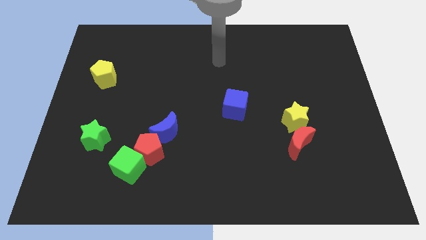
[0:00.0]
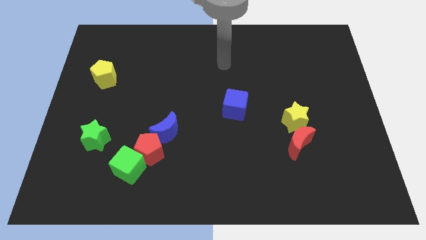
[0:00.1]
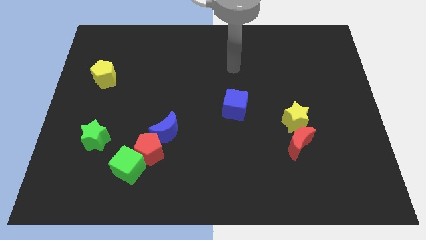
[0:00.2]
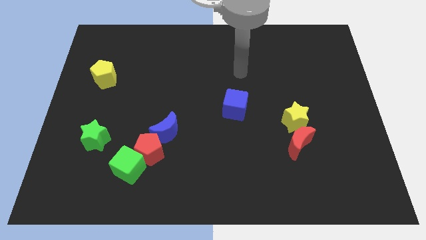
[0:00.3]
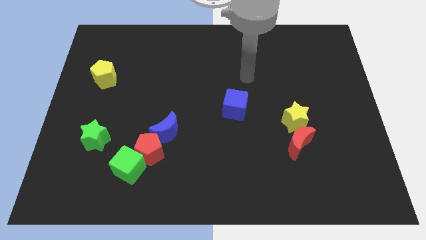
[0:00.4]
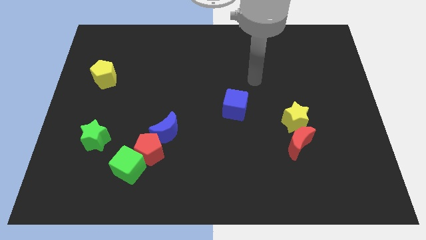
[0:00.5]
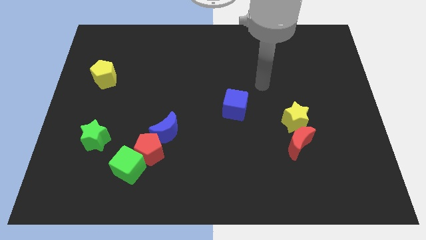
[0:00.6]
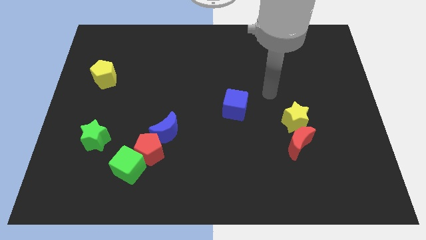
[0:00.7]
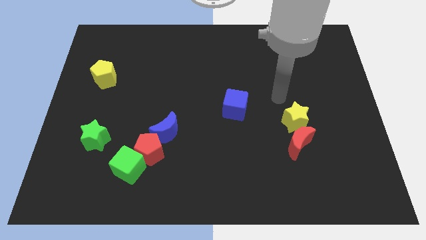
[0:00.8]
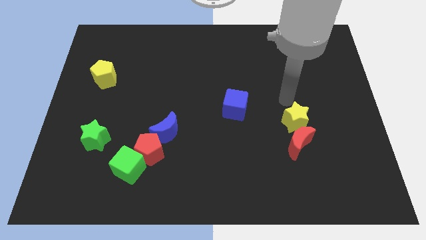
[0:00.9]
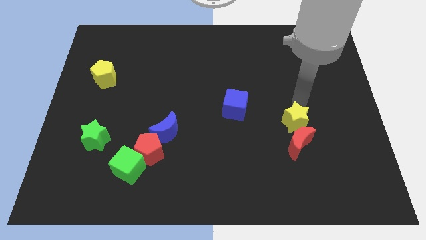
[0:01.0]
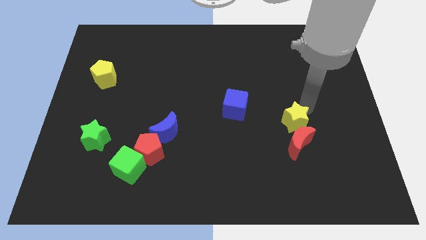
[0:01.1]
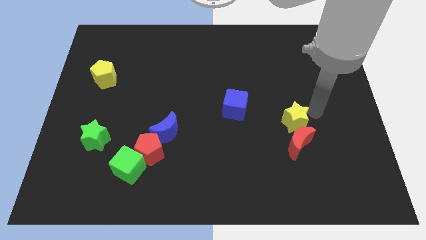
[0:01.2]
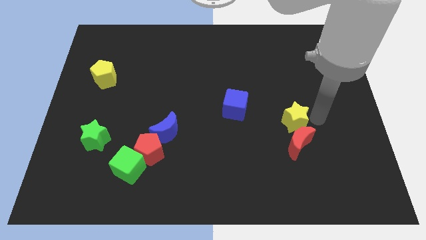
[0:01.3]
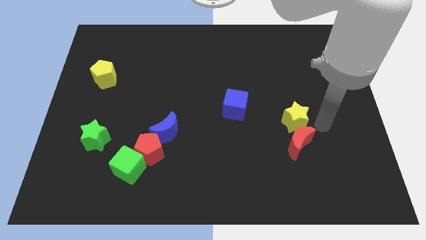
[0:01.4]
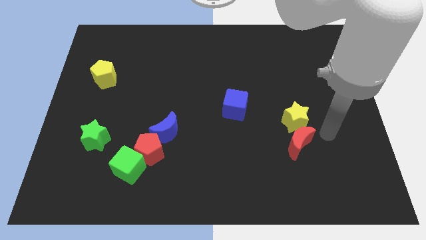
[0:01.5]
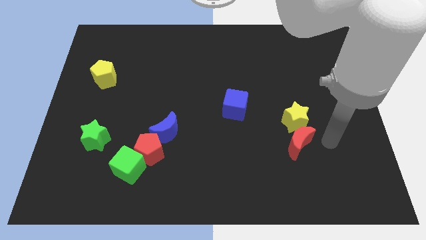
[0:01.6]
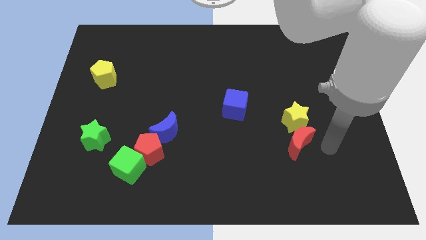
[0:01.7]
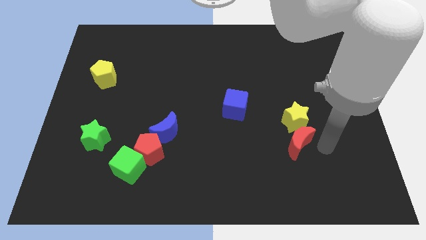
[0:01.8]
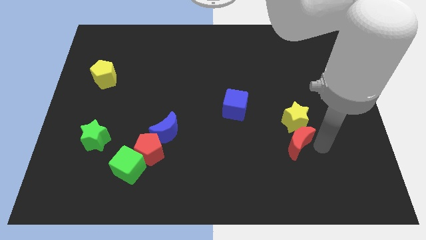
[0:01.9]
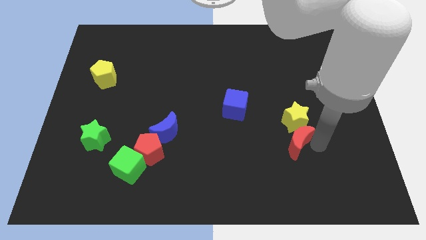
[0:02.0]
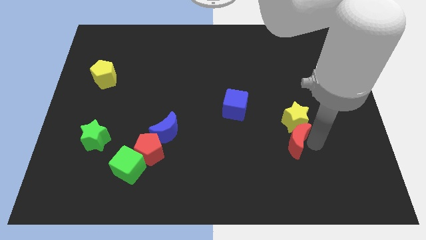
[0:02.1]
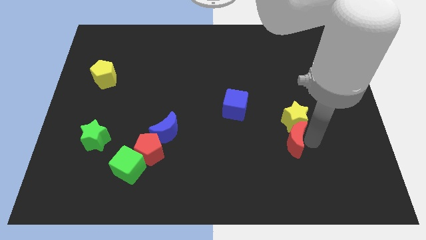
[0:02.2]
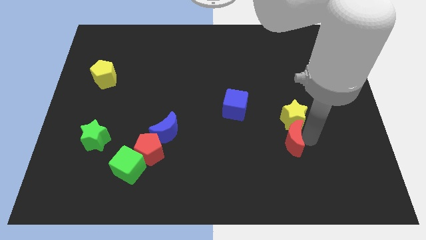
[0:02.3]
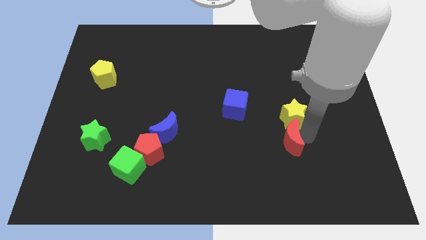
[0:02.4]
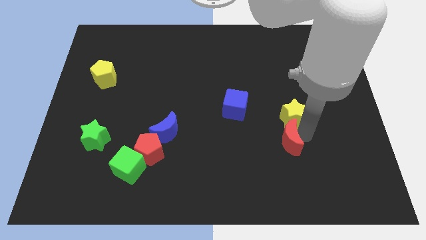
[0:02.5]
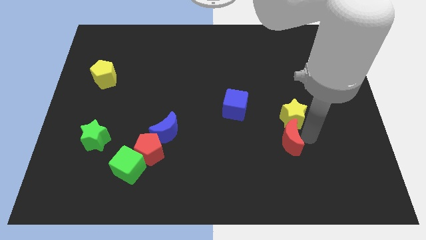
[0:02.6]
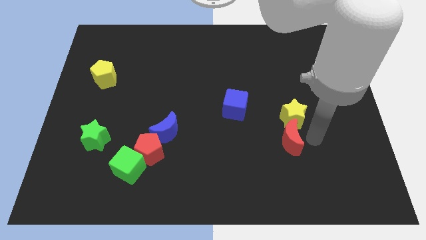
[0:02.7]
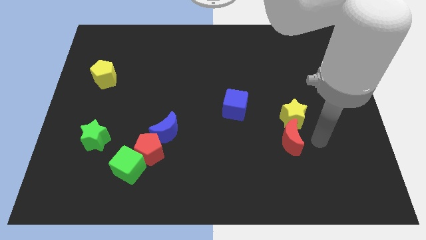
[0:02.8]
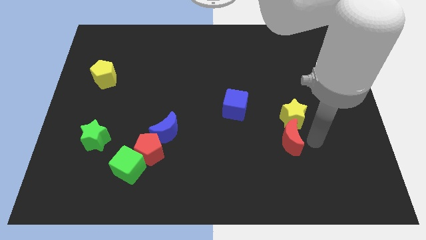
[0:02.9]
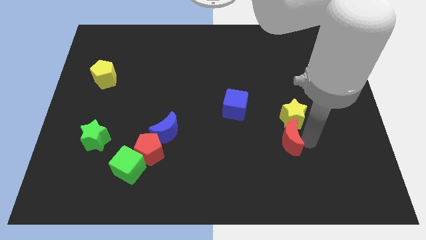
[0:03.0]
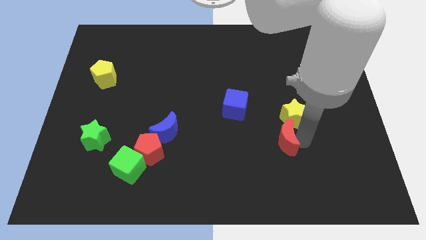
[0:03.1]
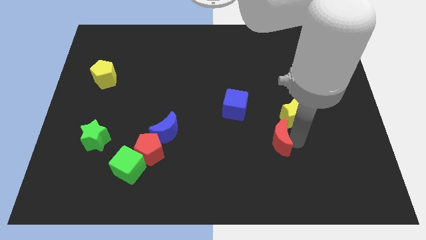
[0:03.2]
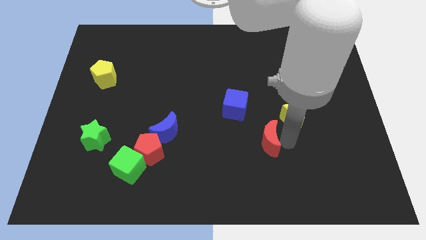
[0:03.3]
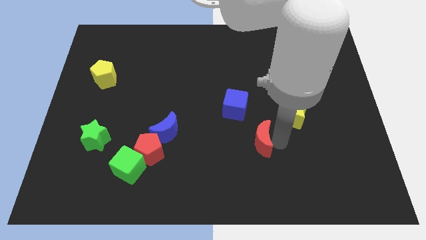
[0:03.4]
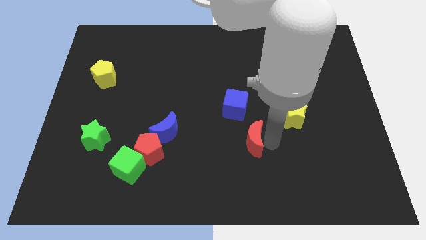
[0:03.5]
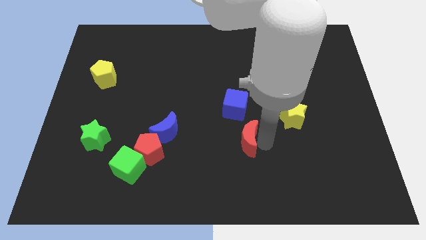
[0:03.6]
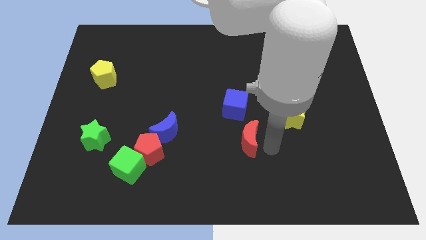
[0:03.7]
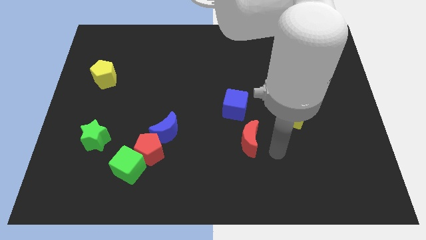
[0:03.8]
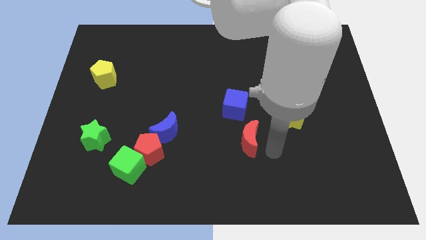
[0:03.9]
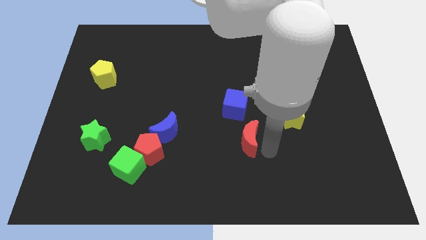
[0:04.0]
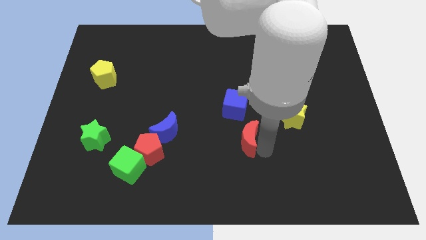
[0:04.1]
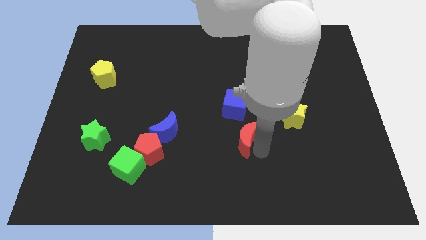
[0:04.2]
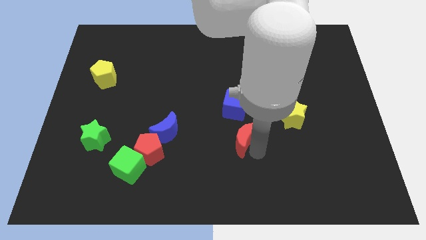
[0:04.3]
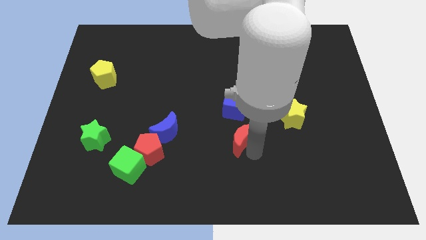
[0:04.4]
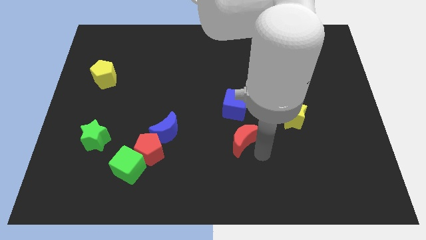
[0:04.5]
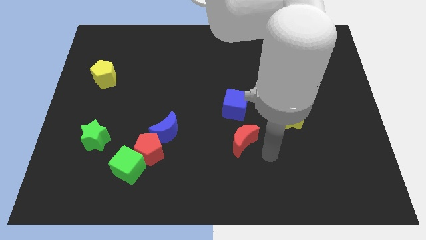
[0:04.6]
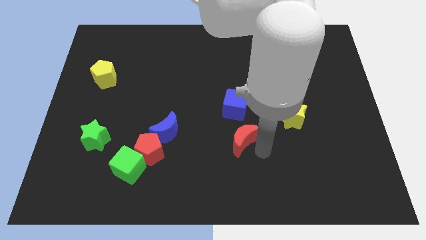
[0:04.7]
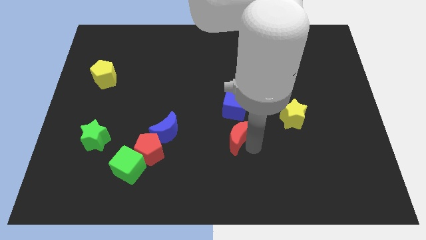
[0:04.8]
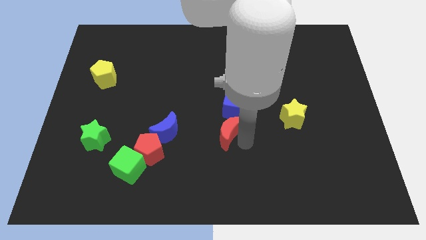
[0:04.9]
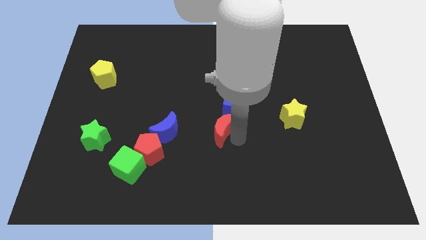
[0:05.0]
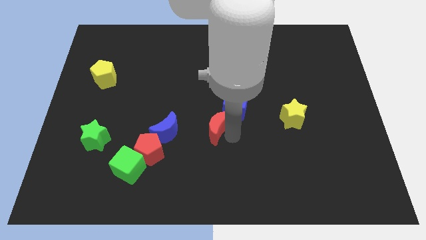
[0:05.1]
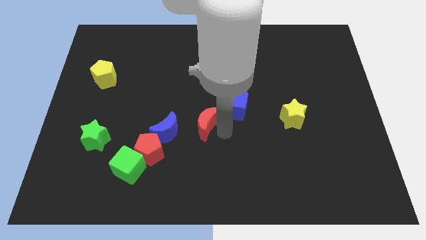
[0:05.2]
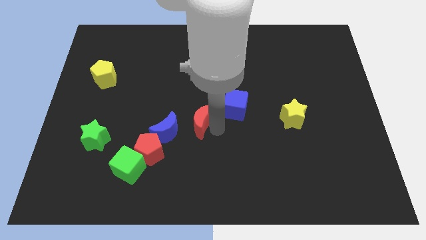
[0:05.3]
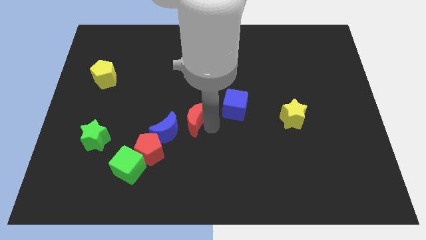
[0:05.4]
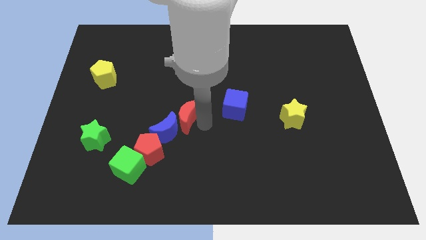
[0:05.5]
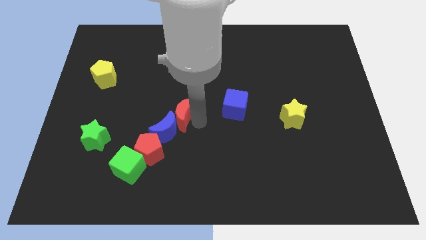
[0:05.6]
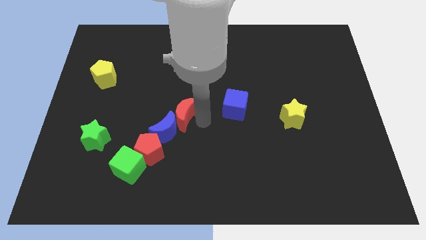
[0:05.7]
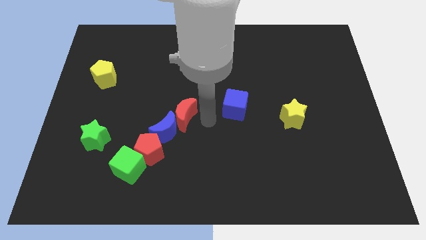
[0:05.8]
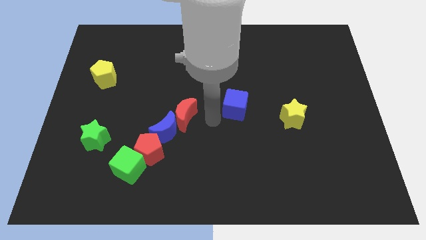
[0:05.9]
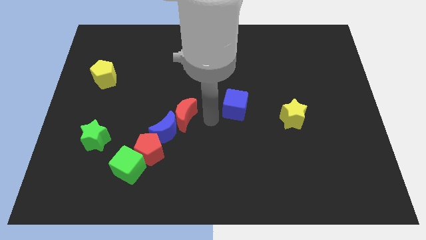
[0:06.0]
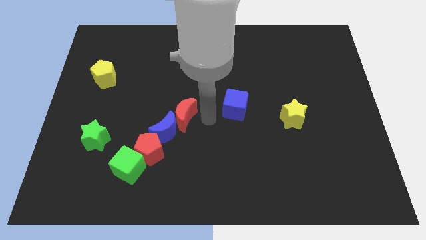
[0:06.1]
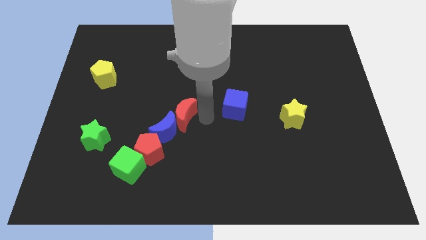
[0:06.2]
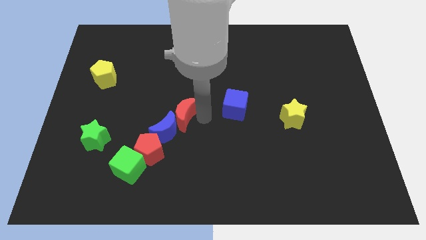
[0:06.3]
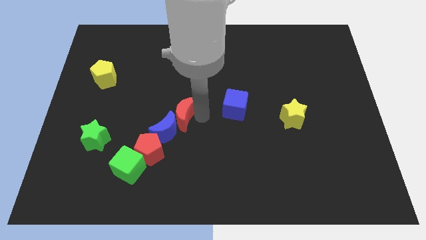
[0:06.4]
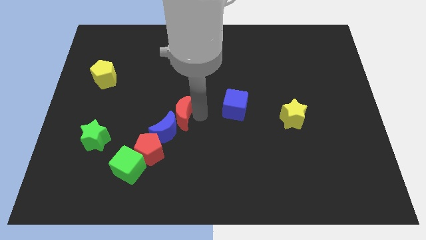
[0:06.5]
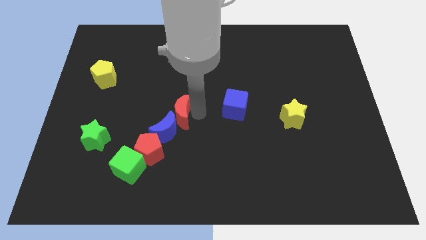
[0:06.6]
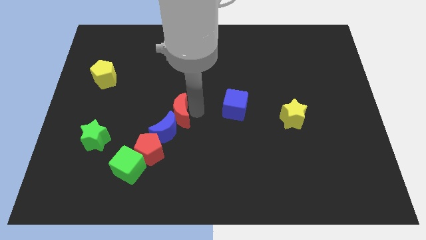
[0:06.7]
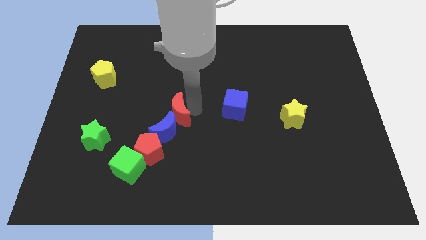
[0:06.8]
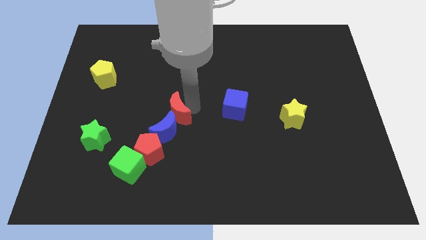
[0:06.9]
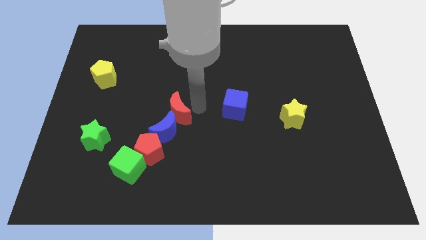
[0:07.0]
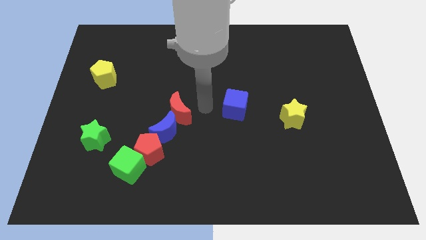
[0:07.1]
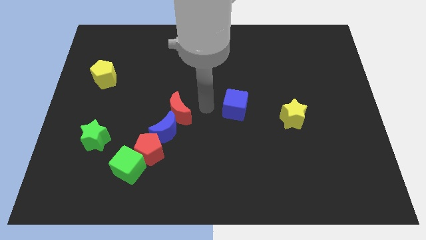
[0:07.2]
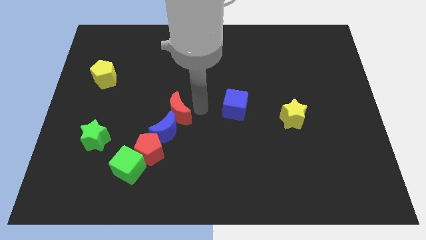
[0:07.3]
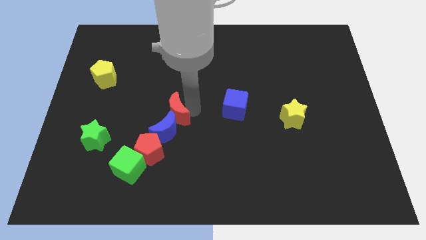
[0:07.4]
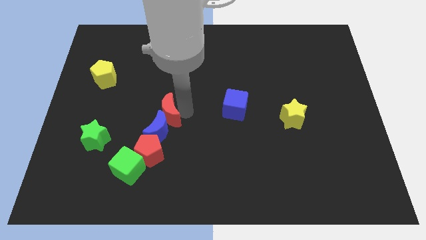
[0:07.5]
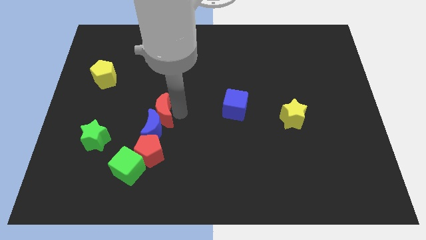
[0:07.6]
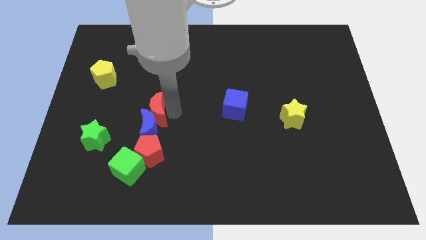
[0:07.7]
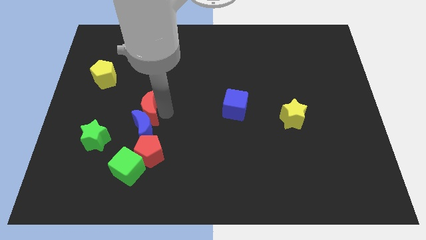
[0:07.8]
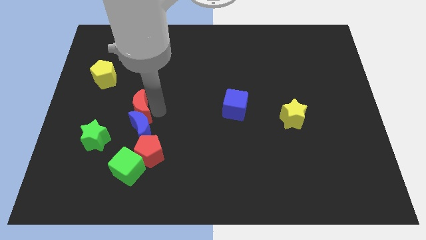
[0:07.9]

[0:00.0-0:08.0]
push the red moon diagonally up and to the right of the green star
